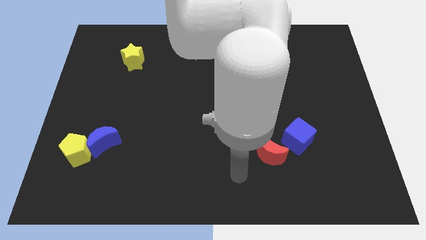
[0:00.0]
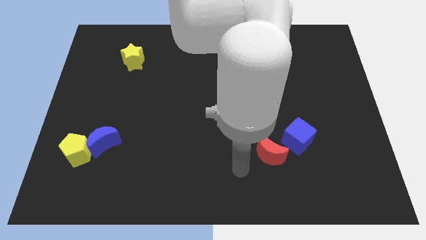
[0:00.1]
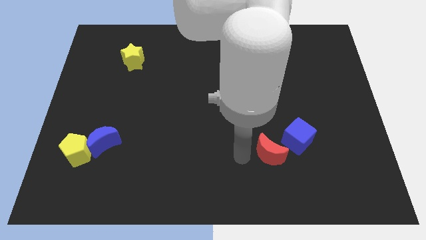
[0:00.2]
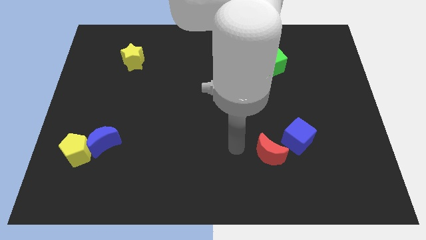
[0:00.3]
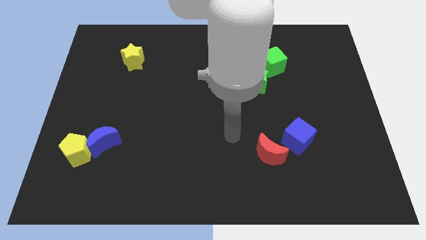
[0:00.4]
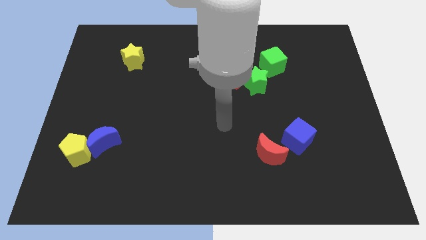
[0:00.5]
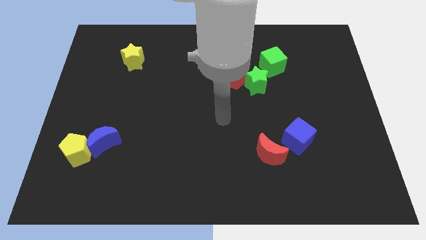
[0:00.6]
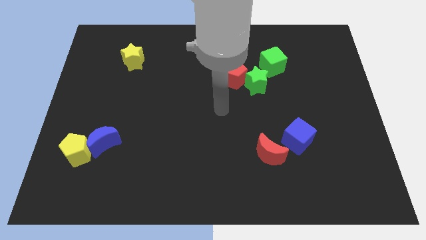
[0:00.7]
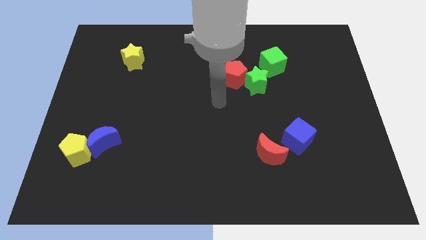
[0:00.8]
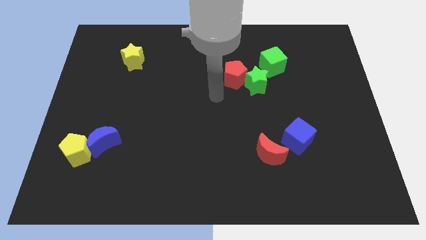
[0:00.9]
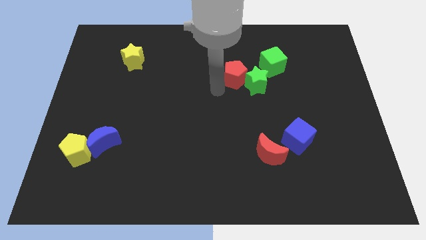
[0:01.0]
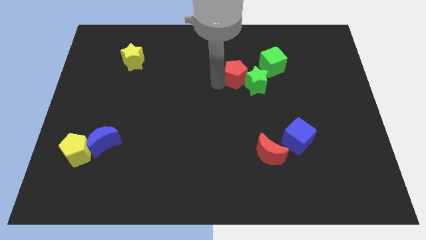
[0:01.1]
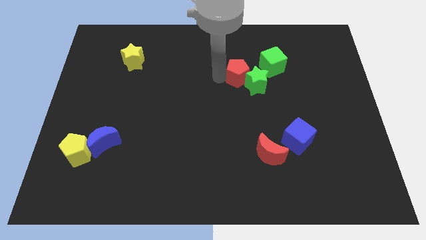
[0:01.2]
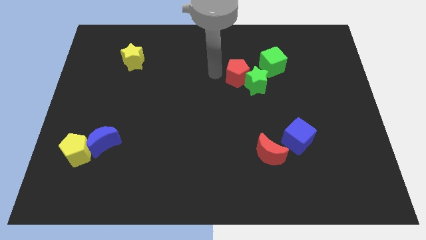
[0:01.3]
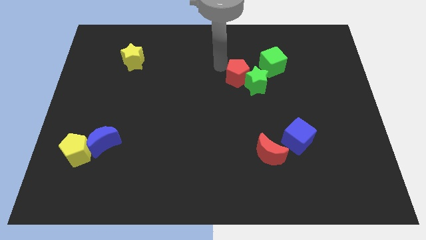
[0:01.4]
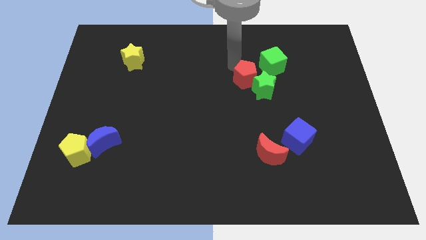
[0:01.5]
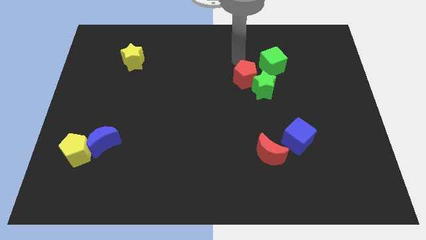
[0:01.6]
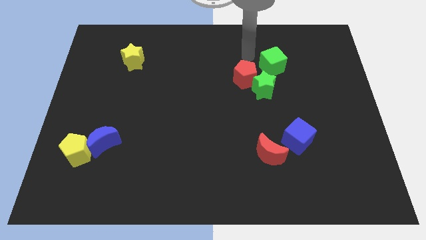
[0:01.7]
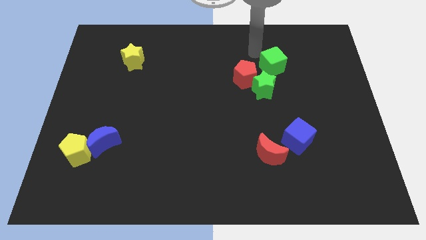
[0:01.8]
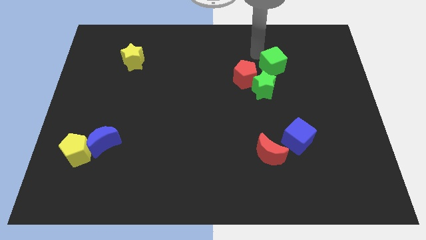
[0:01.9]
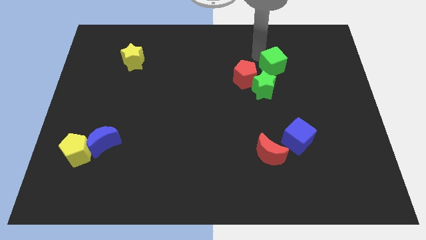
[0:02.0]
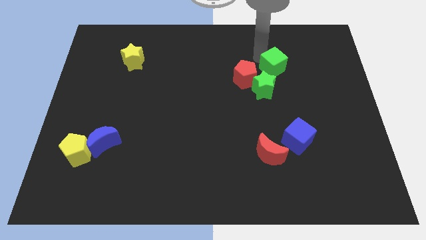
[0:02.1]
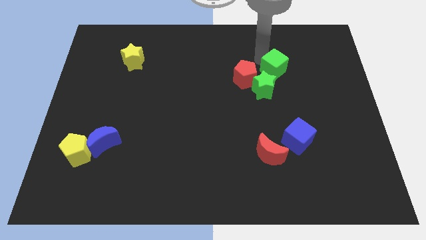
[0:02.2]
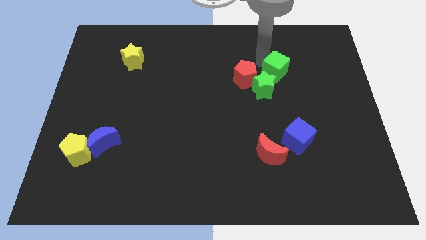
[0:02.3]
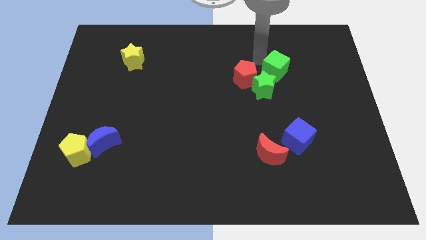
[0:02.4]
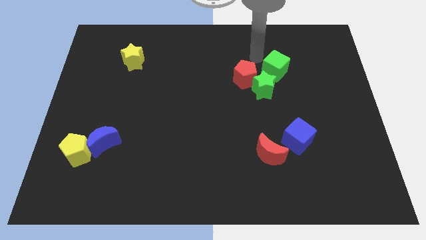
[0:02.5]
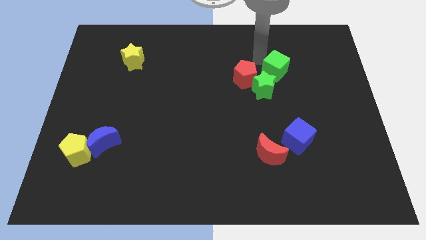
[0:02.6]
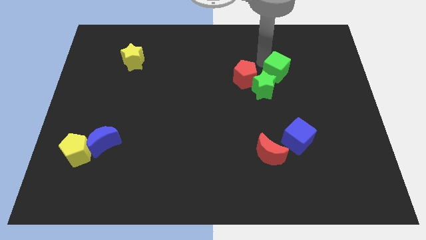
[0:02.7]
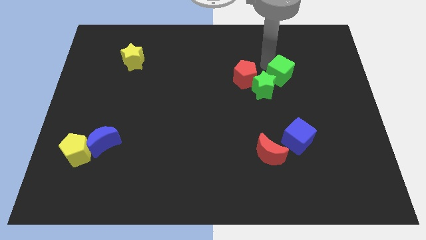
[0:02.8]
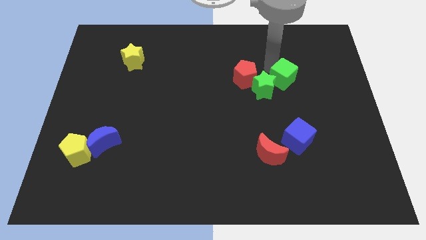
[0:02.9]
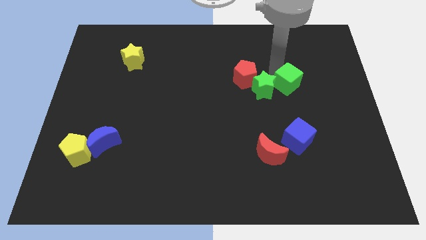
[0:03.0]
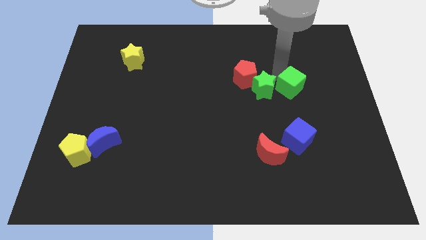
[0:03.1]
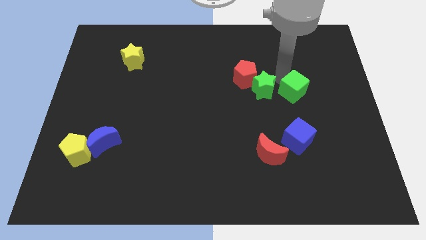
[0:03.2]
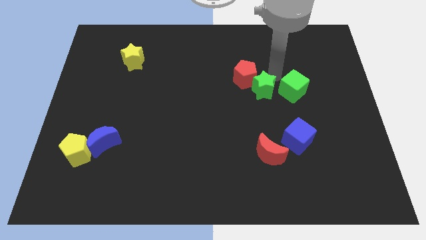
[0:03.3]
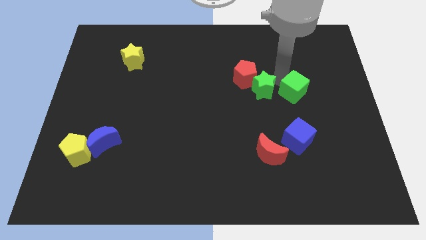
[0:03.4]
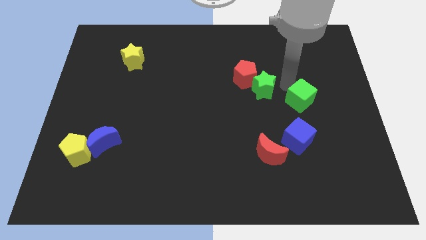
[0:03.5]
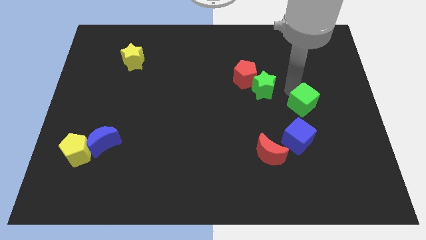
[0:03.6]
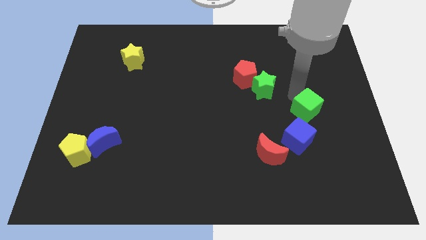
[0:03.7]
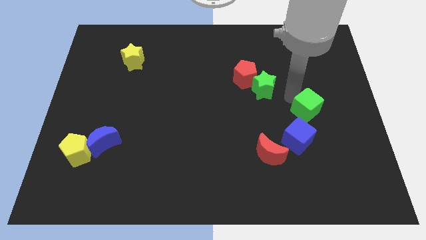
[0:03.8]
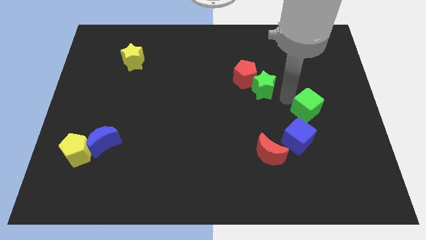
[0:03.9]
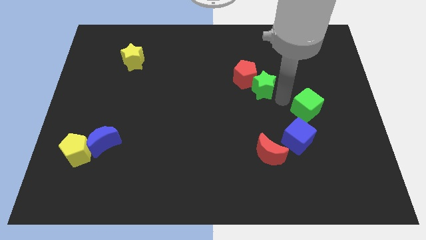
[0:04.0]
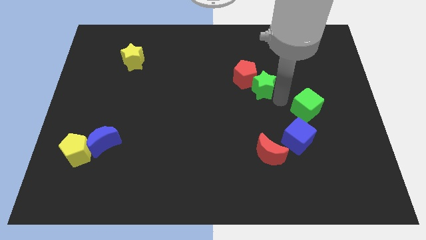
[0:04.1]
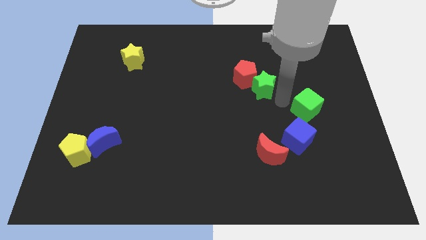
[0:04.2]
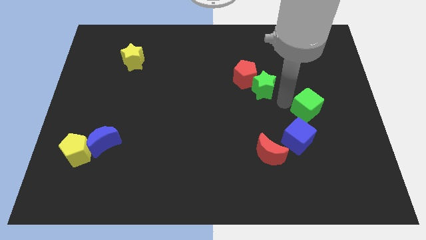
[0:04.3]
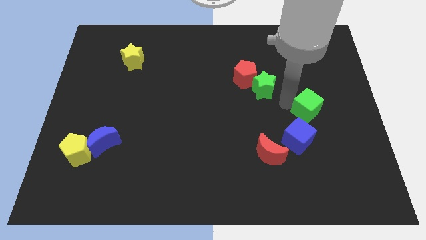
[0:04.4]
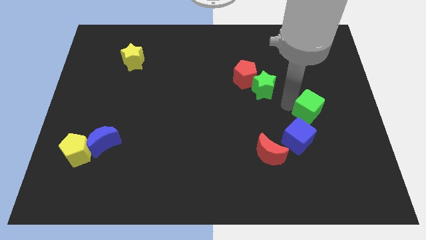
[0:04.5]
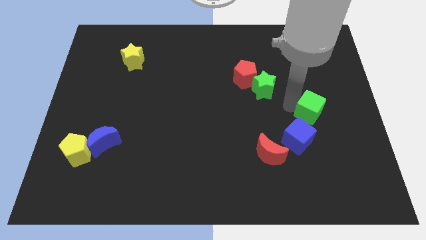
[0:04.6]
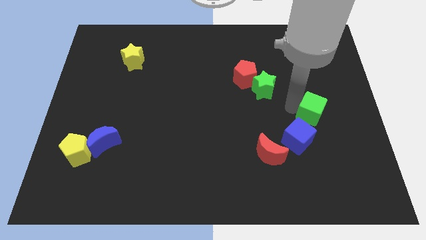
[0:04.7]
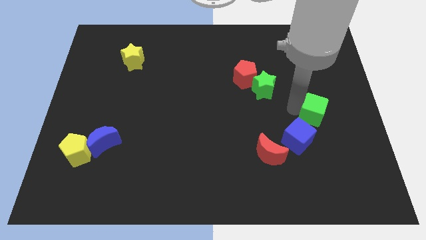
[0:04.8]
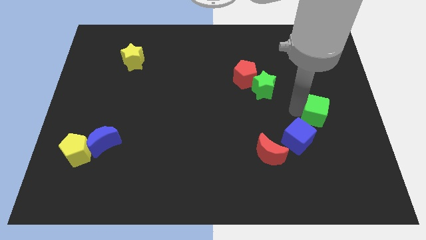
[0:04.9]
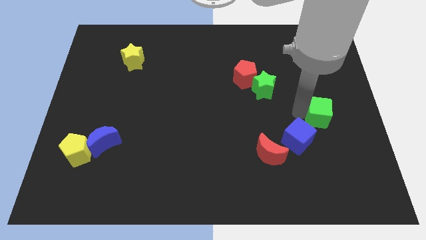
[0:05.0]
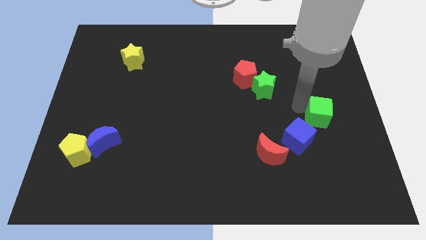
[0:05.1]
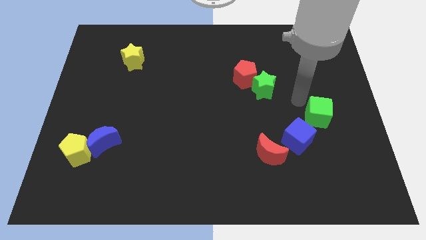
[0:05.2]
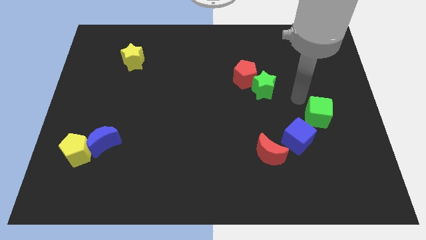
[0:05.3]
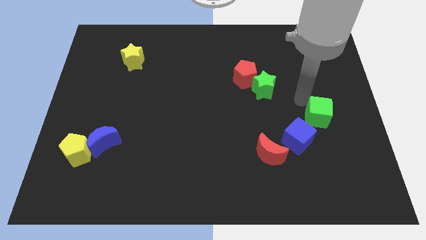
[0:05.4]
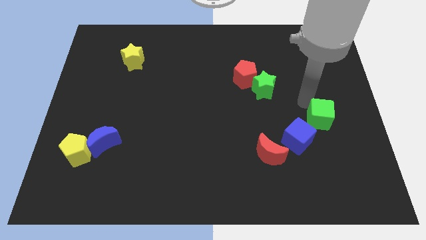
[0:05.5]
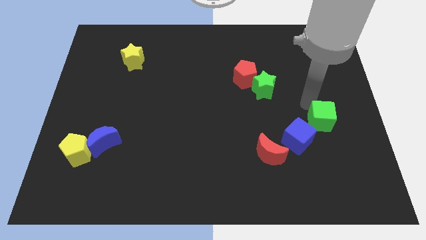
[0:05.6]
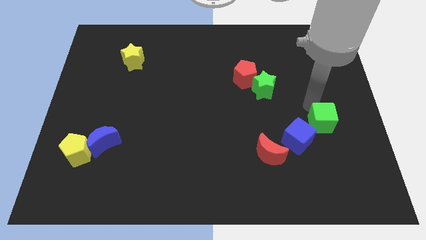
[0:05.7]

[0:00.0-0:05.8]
put the green cube to the right of the blue cube

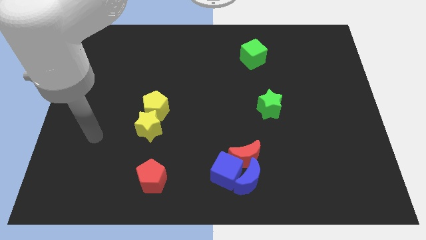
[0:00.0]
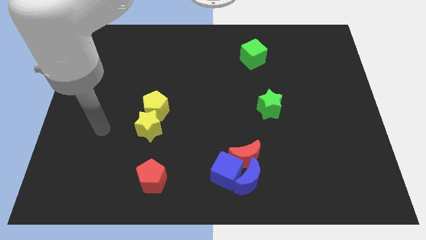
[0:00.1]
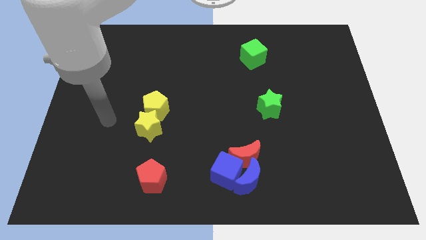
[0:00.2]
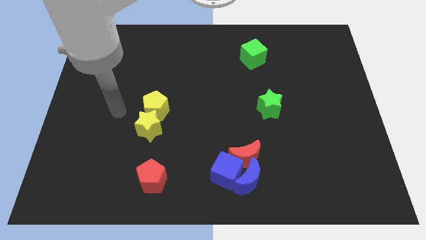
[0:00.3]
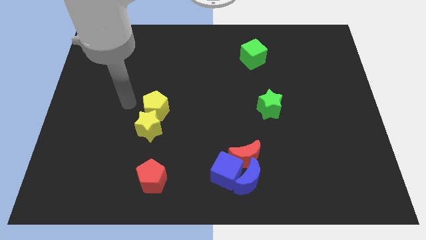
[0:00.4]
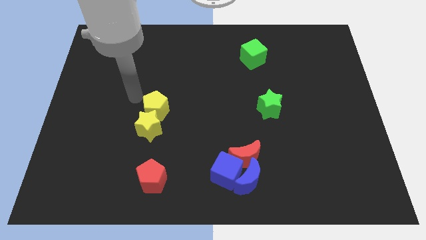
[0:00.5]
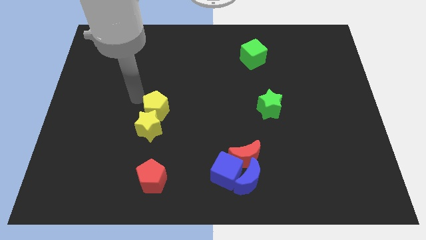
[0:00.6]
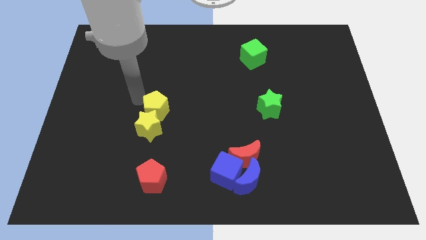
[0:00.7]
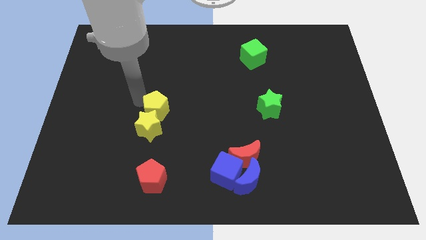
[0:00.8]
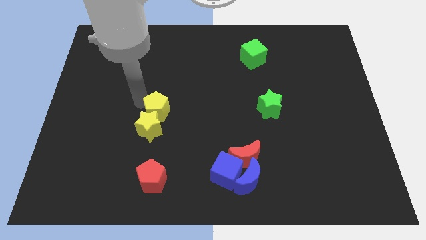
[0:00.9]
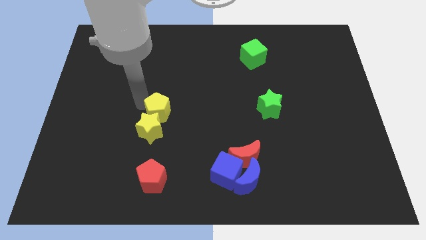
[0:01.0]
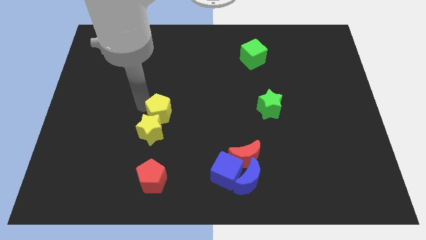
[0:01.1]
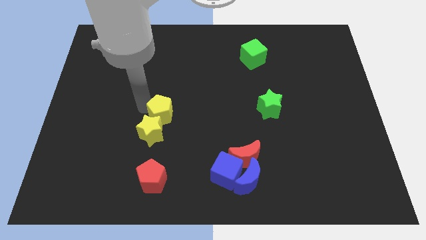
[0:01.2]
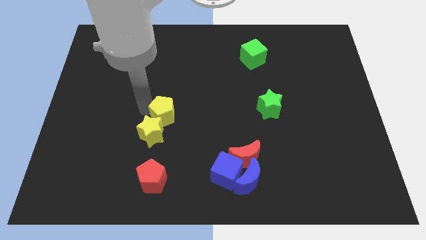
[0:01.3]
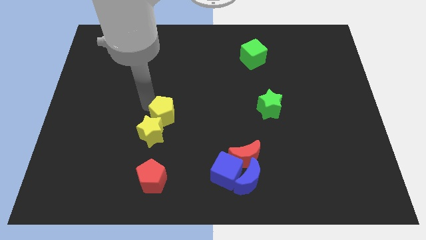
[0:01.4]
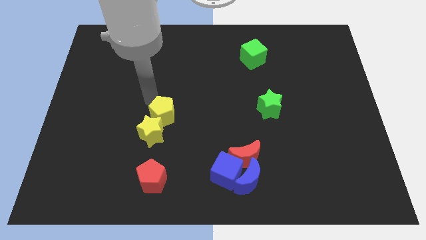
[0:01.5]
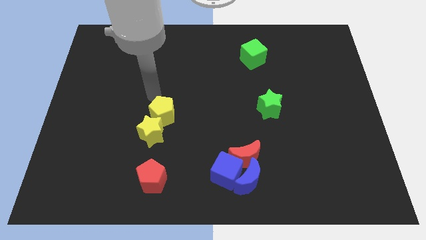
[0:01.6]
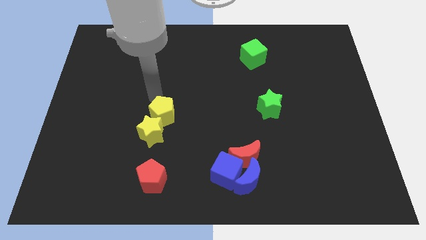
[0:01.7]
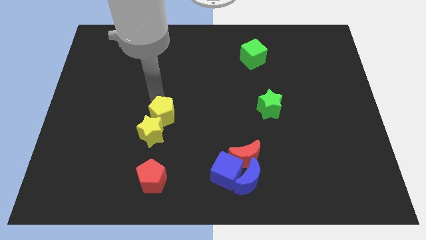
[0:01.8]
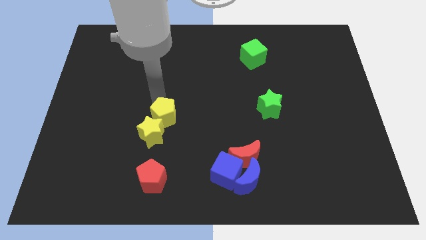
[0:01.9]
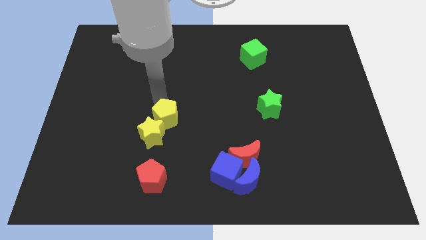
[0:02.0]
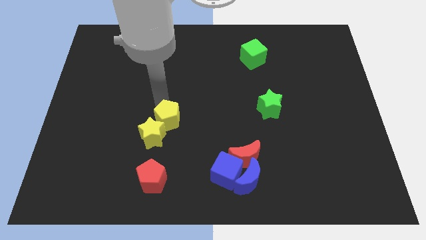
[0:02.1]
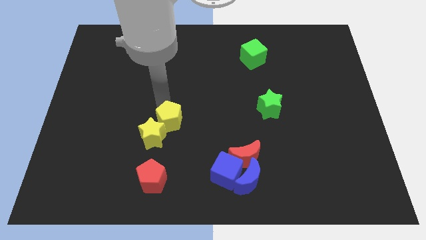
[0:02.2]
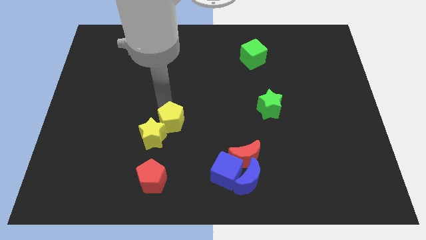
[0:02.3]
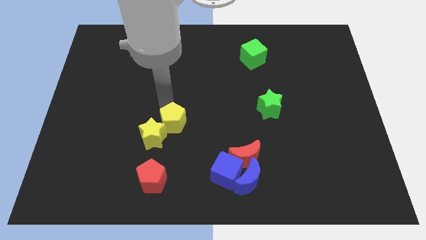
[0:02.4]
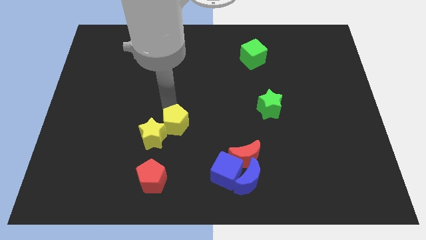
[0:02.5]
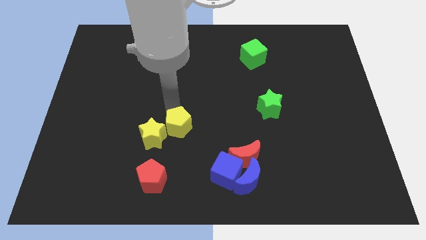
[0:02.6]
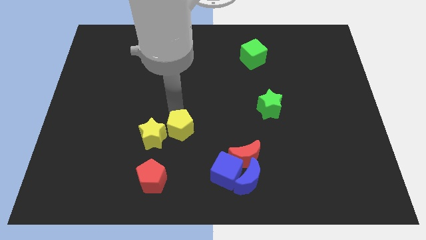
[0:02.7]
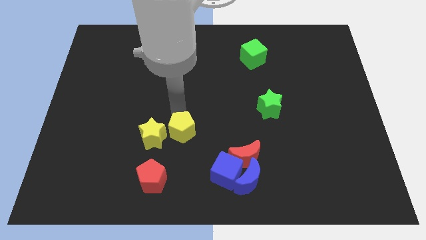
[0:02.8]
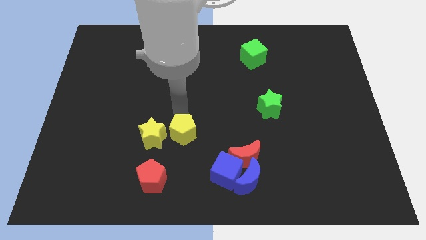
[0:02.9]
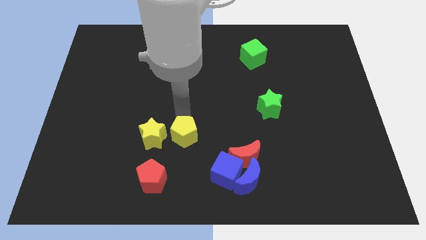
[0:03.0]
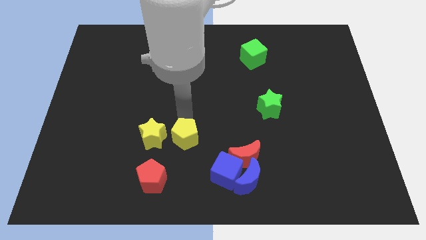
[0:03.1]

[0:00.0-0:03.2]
move the yellow pentagon to the top right of the red pentagon
